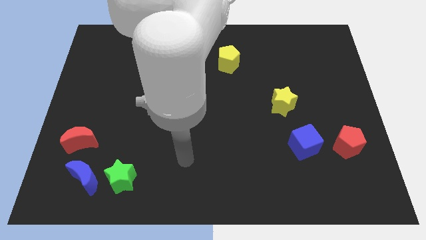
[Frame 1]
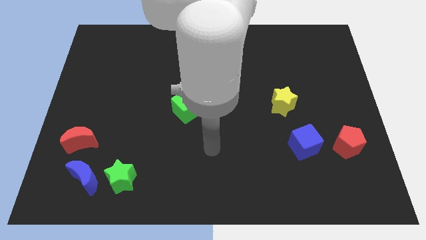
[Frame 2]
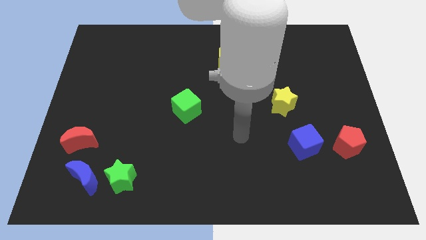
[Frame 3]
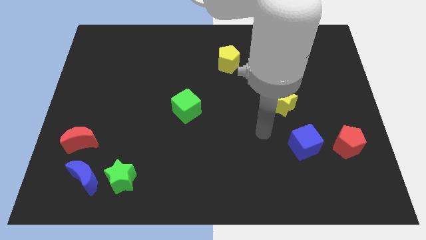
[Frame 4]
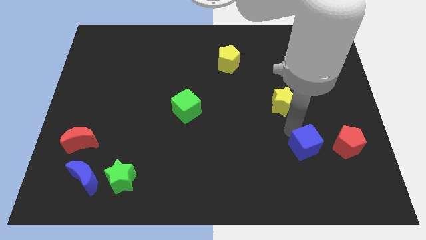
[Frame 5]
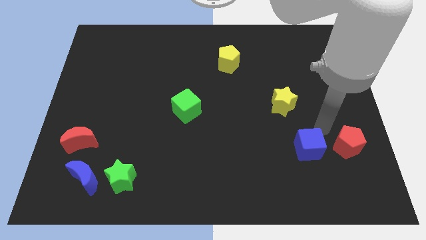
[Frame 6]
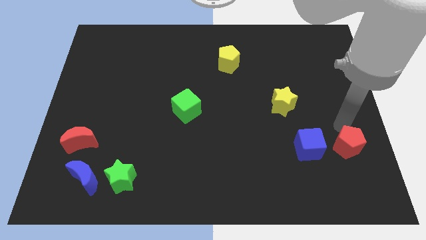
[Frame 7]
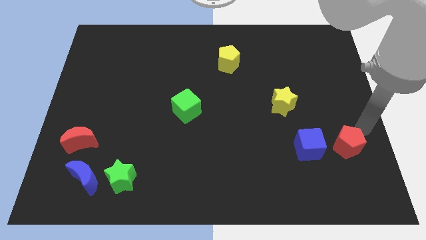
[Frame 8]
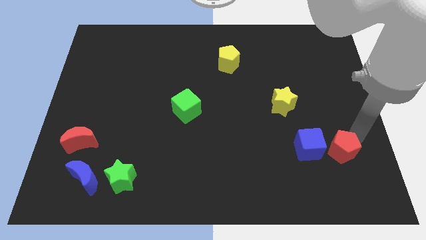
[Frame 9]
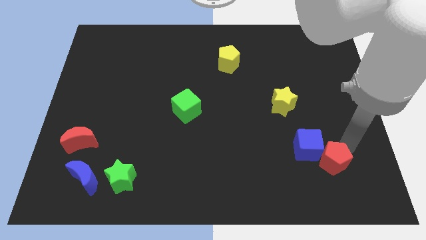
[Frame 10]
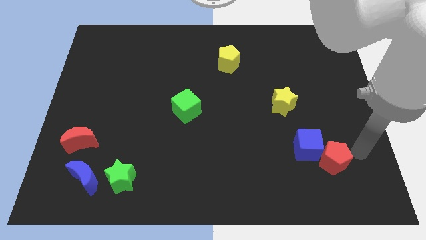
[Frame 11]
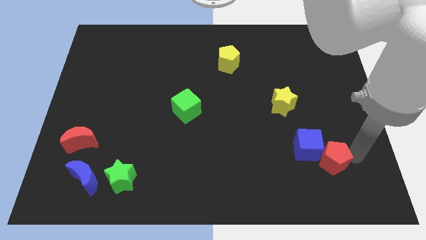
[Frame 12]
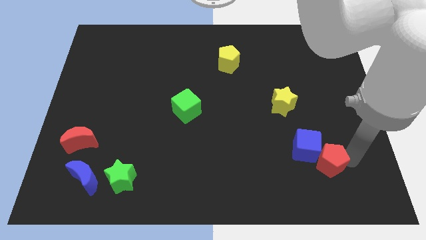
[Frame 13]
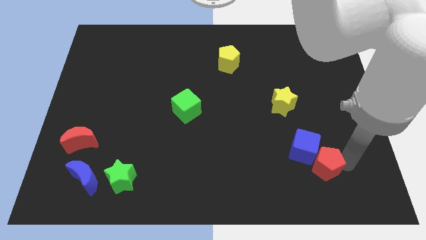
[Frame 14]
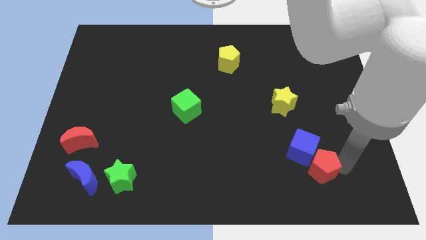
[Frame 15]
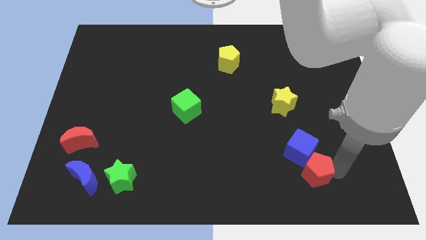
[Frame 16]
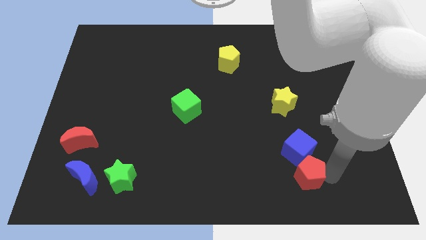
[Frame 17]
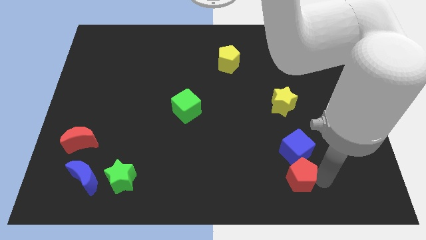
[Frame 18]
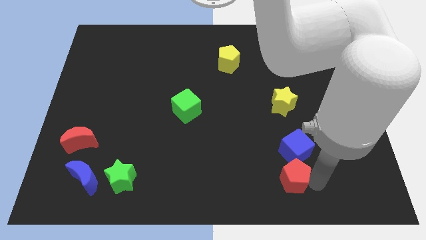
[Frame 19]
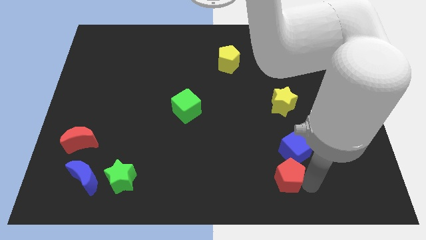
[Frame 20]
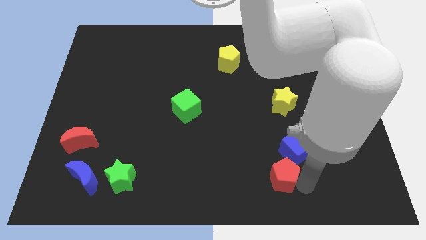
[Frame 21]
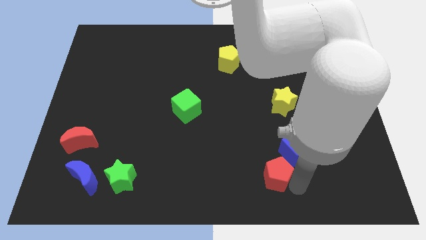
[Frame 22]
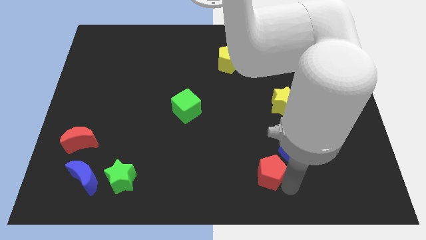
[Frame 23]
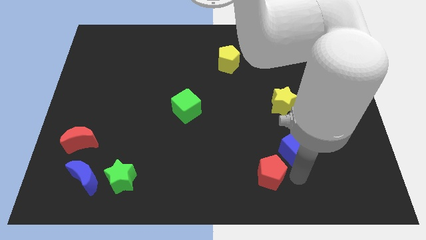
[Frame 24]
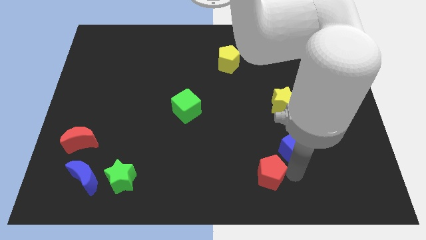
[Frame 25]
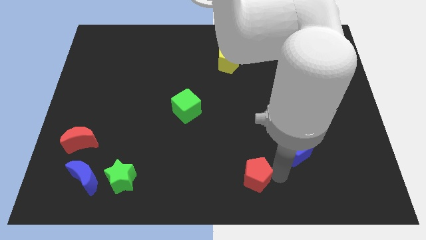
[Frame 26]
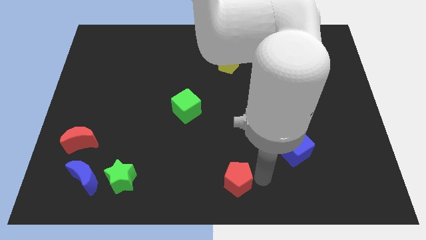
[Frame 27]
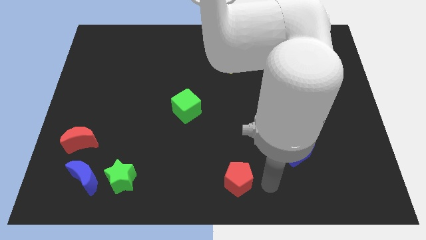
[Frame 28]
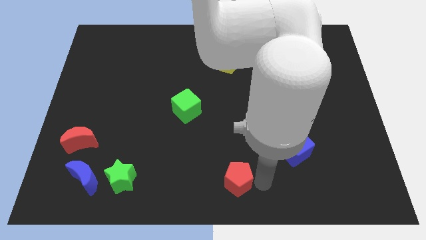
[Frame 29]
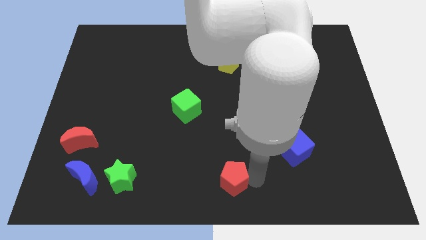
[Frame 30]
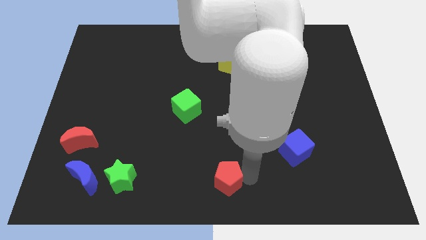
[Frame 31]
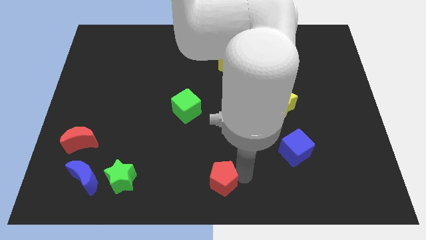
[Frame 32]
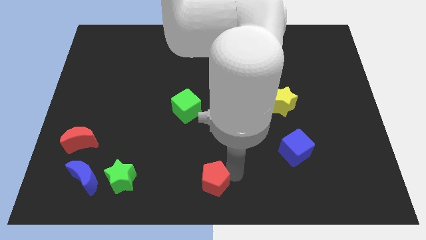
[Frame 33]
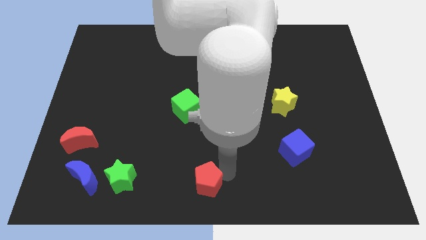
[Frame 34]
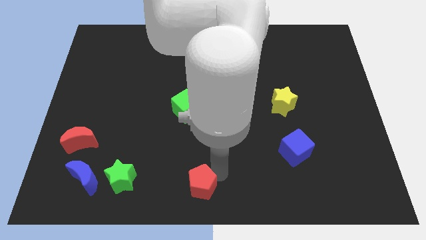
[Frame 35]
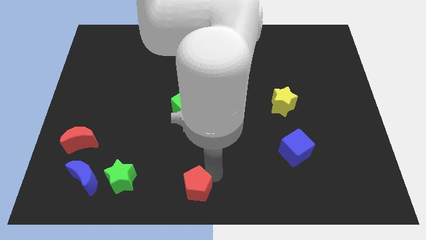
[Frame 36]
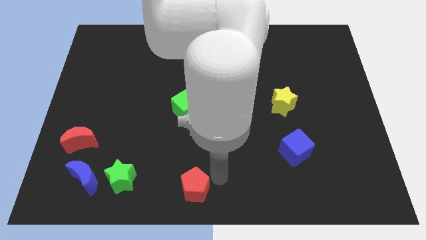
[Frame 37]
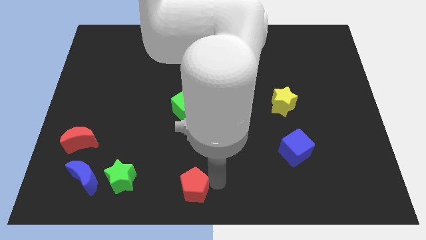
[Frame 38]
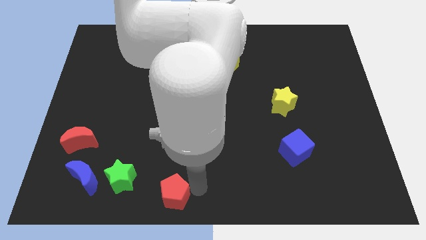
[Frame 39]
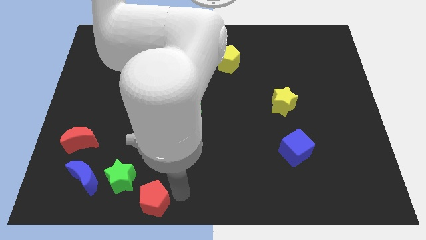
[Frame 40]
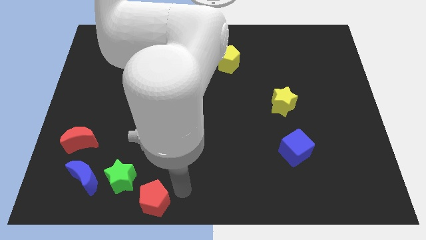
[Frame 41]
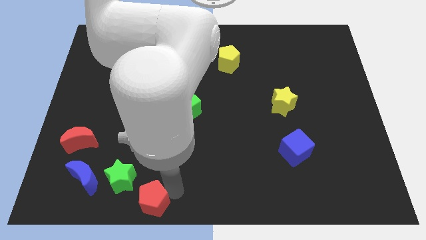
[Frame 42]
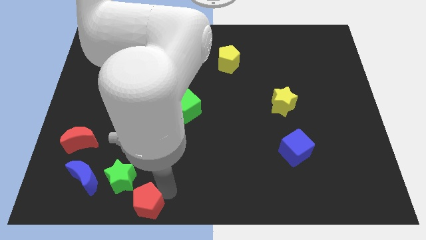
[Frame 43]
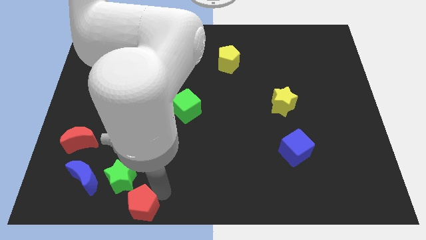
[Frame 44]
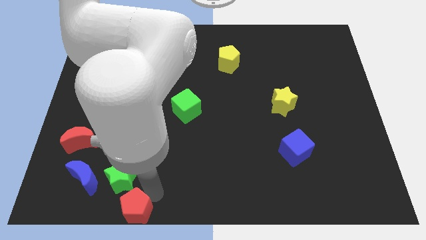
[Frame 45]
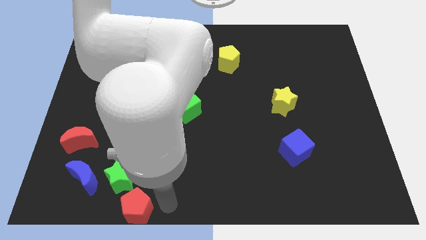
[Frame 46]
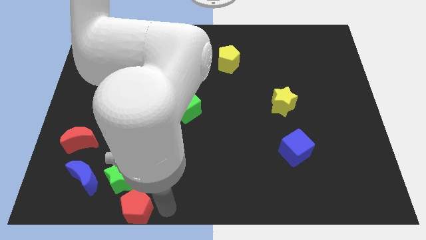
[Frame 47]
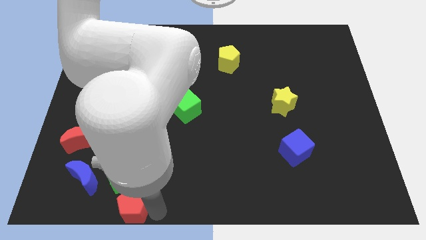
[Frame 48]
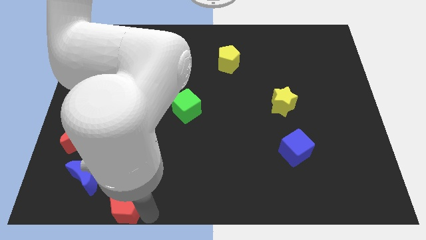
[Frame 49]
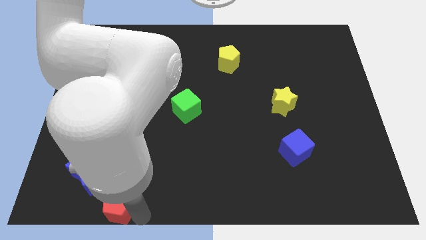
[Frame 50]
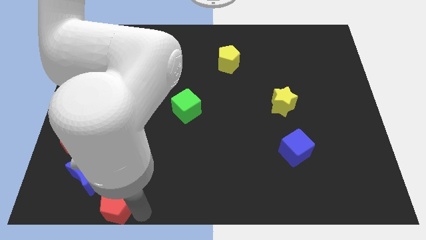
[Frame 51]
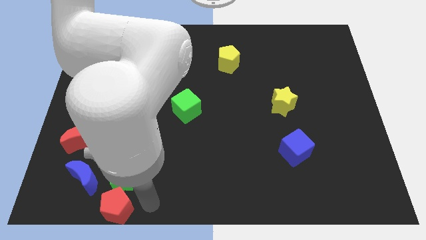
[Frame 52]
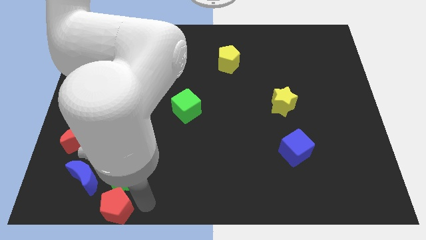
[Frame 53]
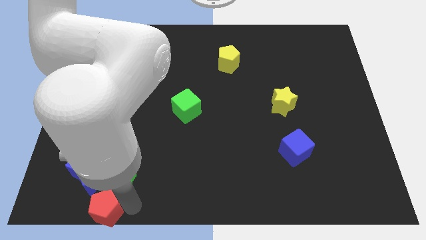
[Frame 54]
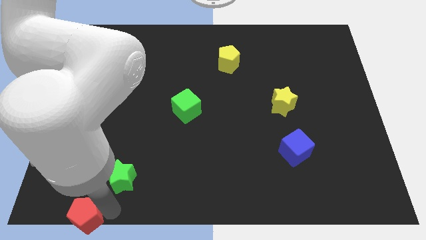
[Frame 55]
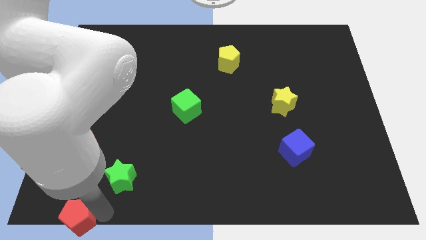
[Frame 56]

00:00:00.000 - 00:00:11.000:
move the red pentagon to the bottom left corner

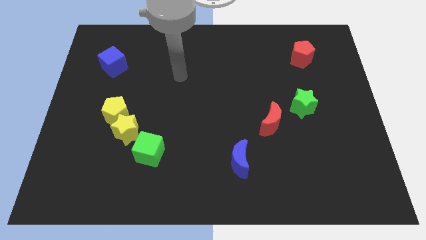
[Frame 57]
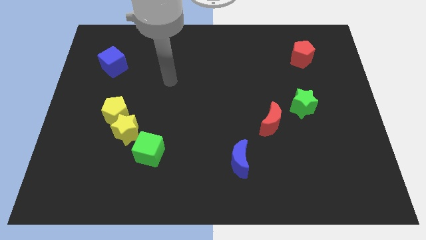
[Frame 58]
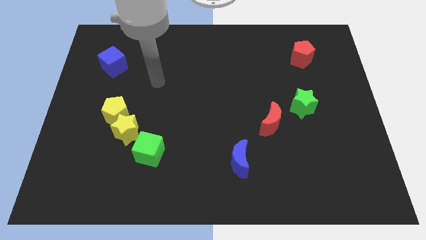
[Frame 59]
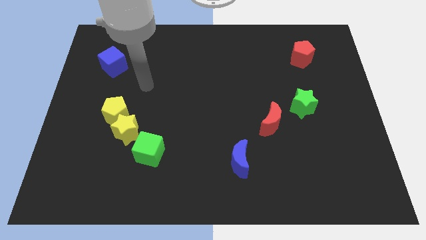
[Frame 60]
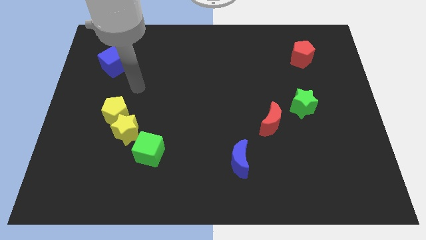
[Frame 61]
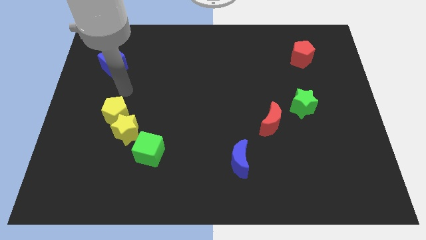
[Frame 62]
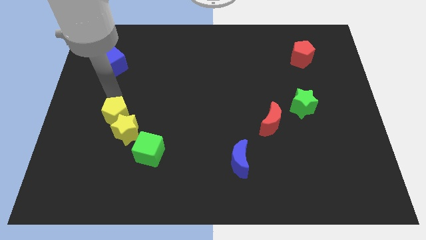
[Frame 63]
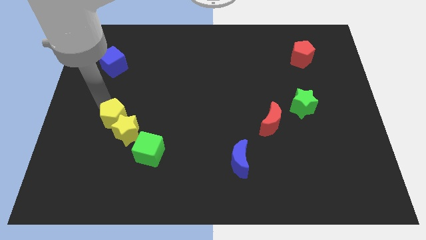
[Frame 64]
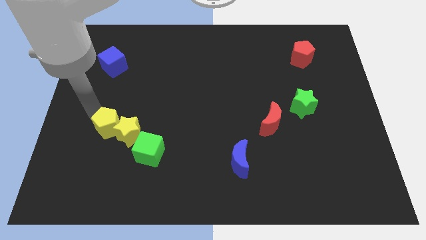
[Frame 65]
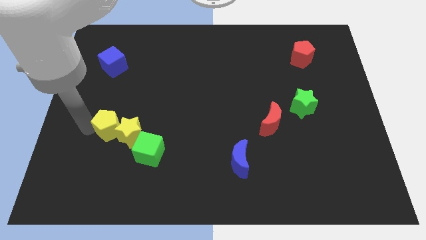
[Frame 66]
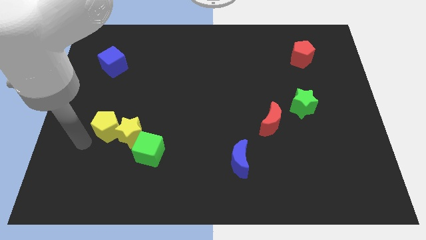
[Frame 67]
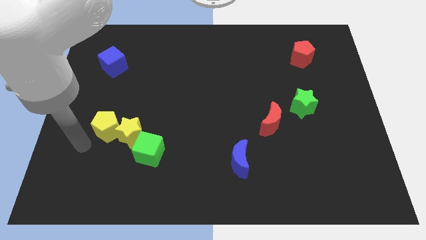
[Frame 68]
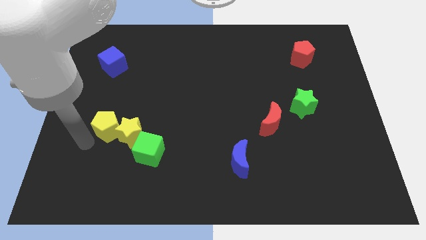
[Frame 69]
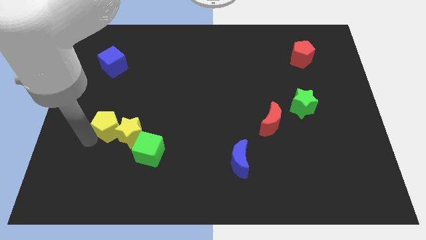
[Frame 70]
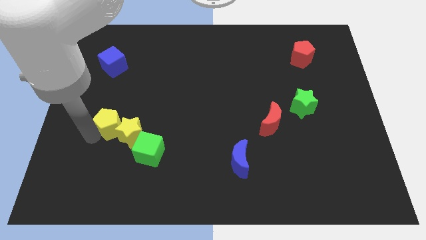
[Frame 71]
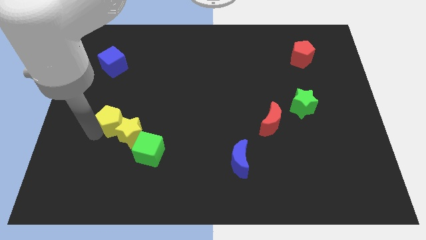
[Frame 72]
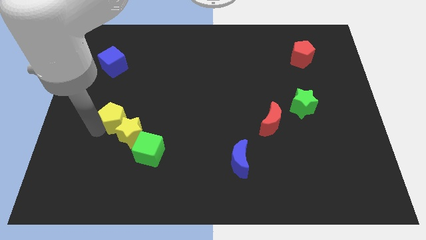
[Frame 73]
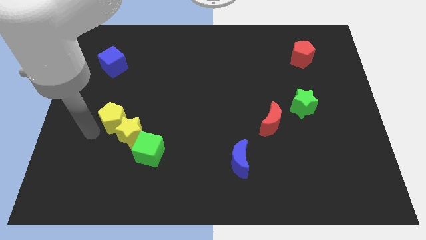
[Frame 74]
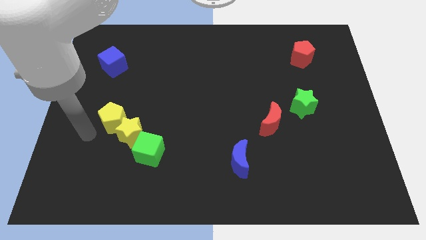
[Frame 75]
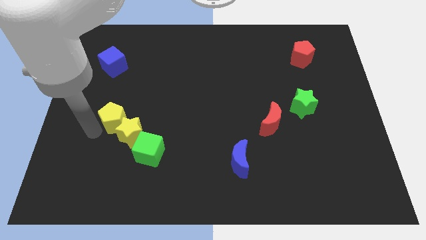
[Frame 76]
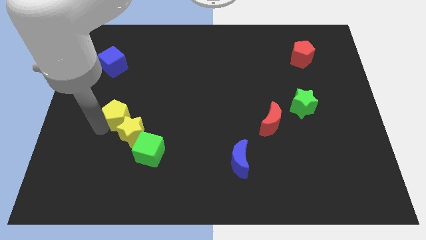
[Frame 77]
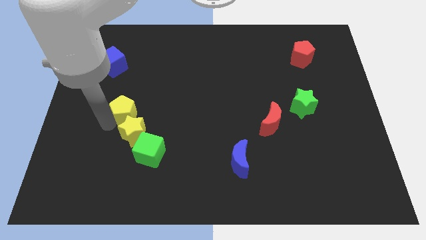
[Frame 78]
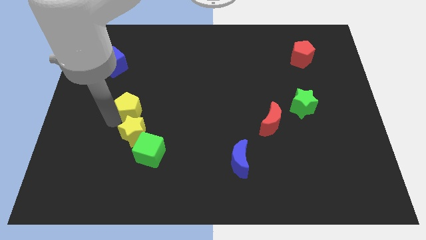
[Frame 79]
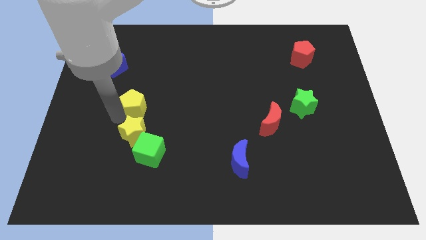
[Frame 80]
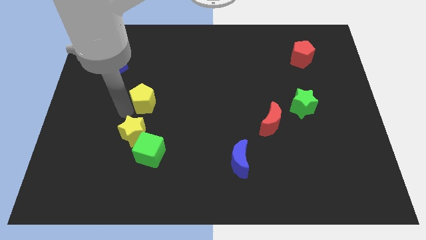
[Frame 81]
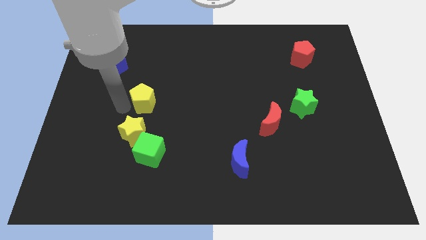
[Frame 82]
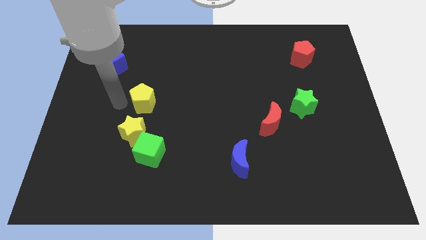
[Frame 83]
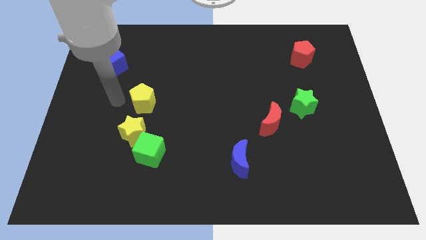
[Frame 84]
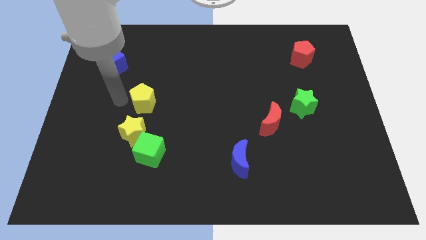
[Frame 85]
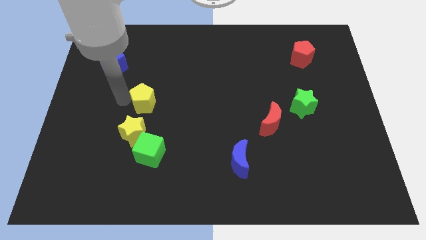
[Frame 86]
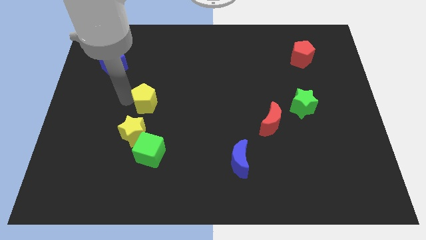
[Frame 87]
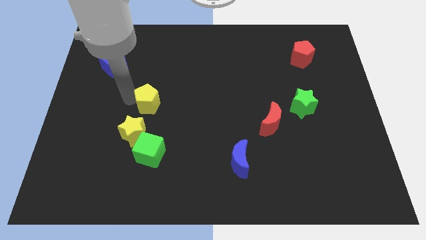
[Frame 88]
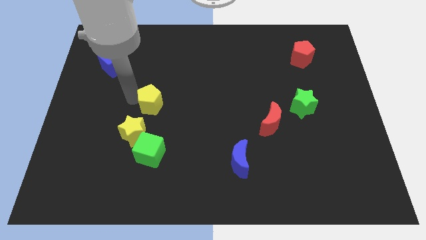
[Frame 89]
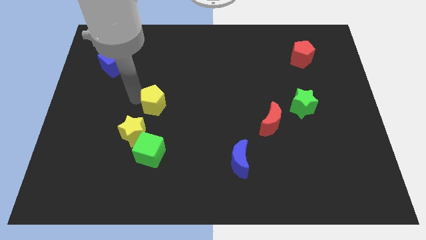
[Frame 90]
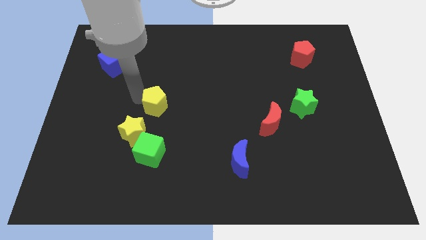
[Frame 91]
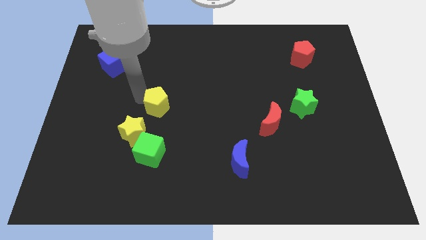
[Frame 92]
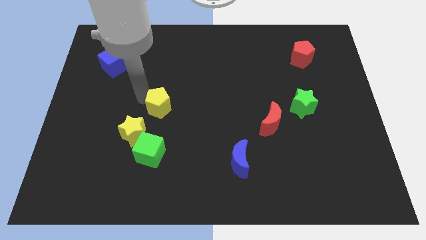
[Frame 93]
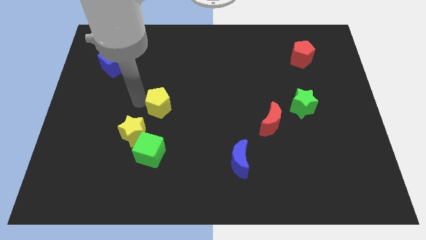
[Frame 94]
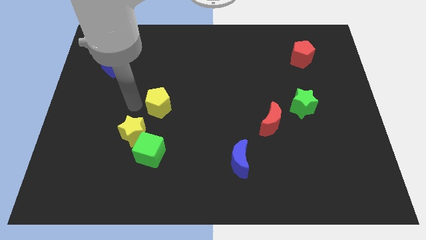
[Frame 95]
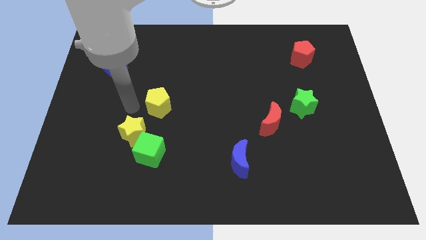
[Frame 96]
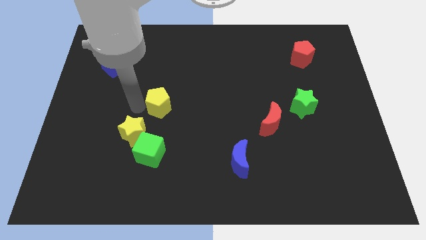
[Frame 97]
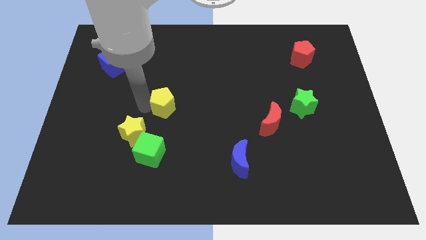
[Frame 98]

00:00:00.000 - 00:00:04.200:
put the yellow pentagon to the middle
